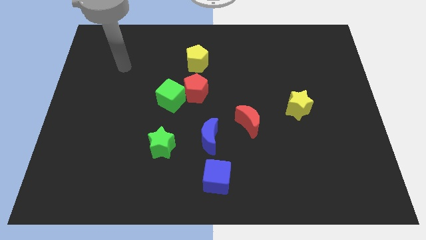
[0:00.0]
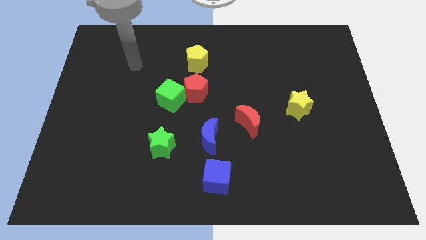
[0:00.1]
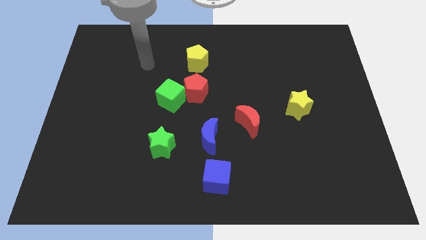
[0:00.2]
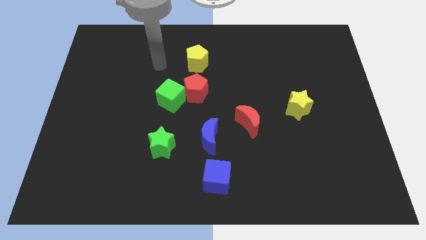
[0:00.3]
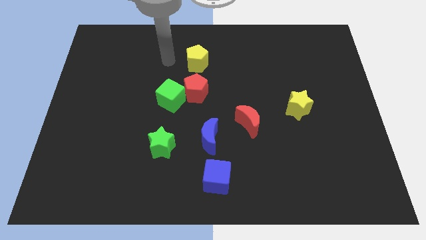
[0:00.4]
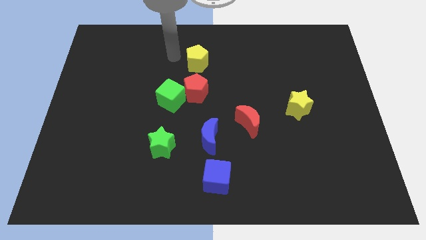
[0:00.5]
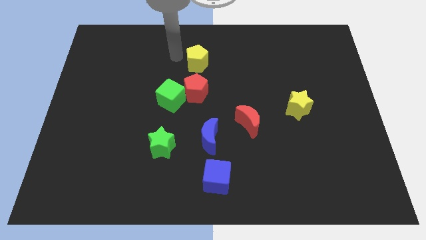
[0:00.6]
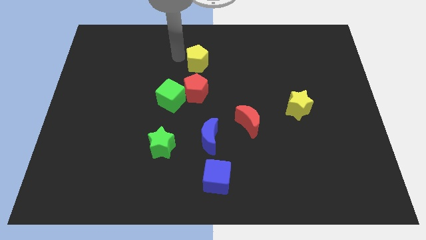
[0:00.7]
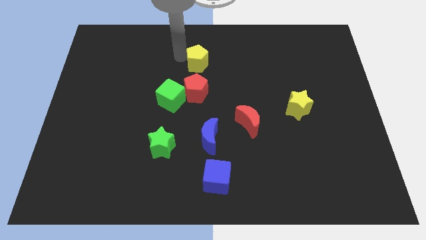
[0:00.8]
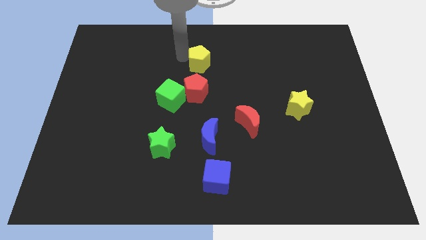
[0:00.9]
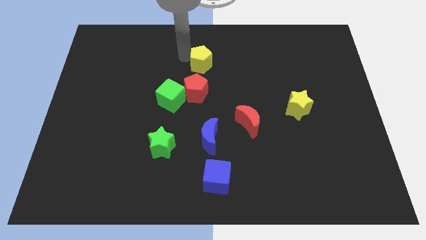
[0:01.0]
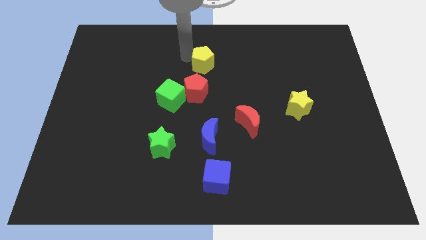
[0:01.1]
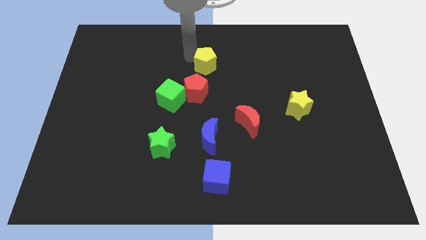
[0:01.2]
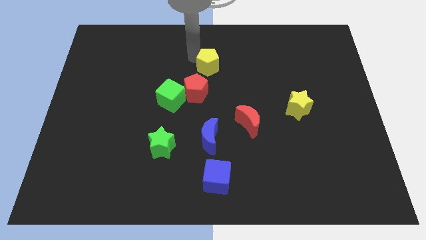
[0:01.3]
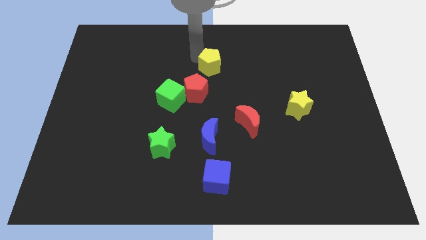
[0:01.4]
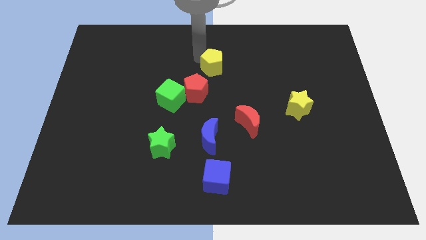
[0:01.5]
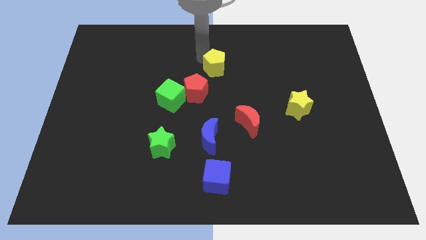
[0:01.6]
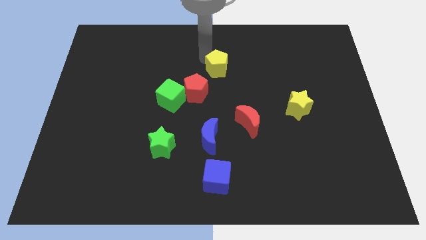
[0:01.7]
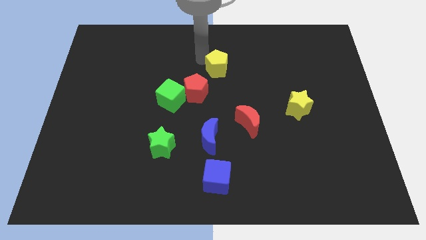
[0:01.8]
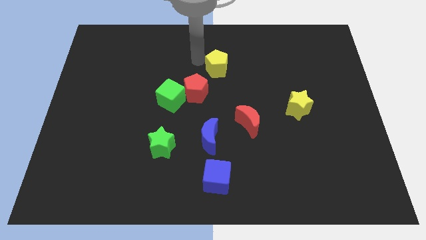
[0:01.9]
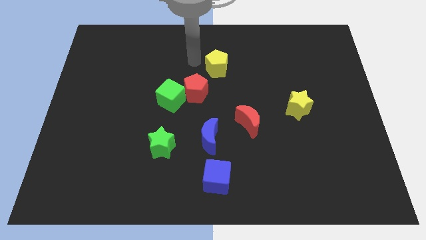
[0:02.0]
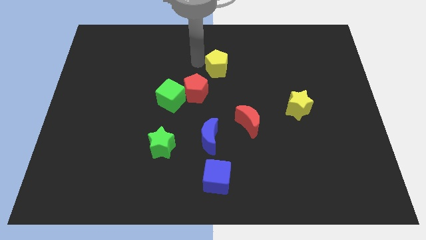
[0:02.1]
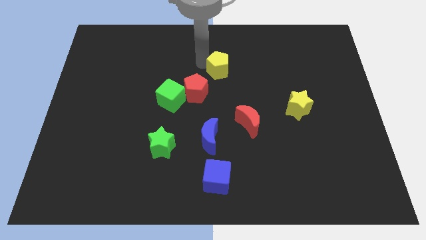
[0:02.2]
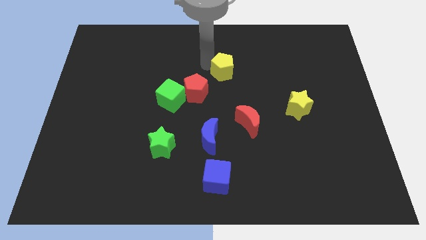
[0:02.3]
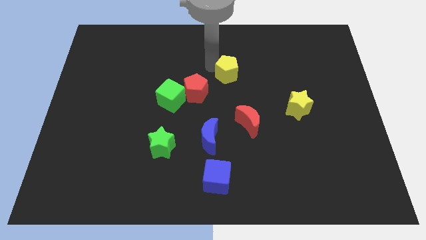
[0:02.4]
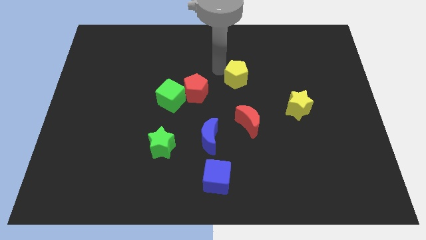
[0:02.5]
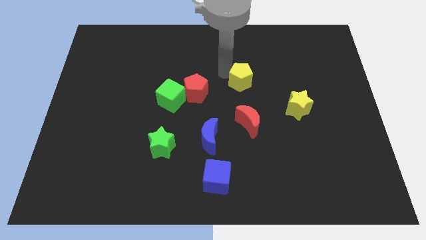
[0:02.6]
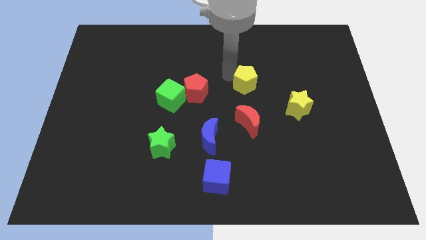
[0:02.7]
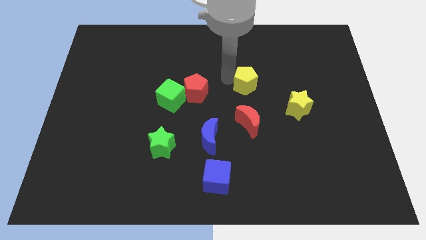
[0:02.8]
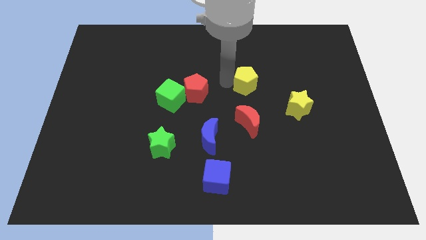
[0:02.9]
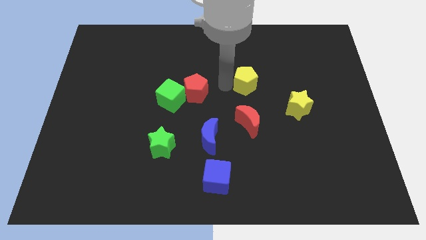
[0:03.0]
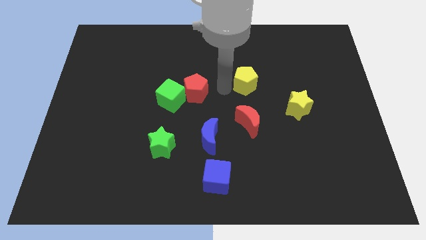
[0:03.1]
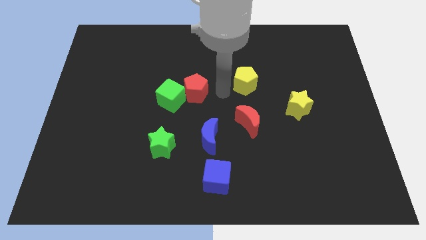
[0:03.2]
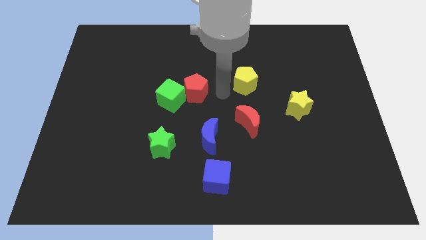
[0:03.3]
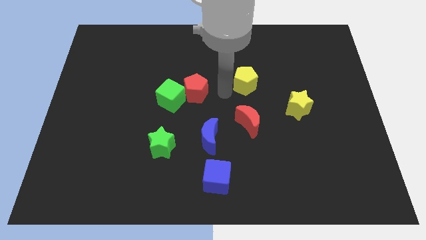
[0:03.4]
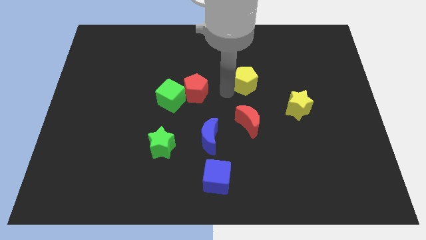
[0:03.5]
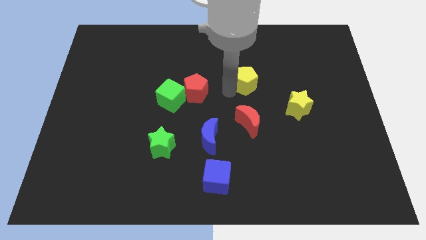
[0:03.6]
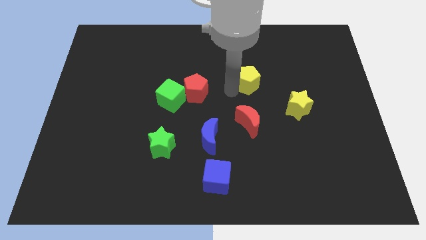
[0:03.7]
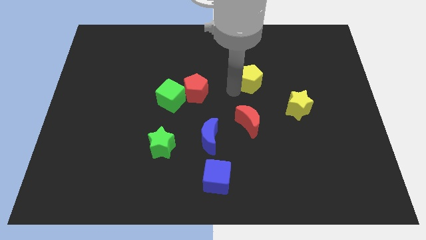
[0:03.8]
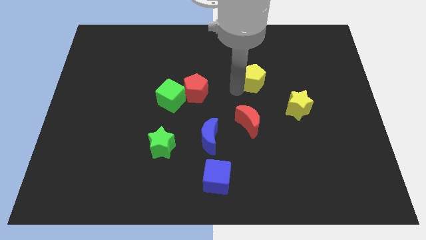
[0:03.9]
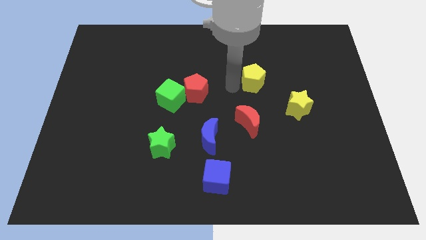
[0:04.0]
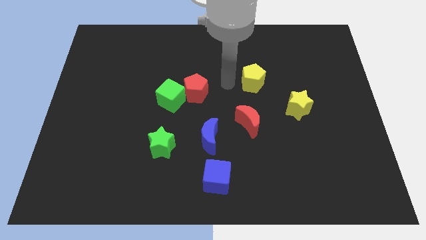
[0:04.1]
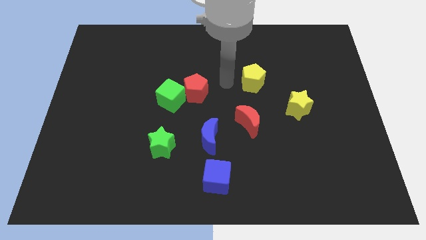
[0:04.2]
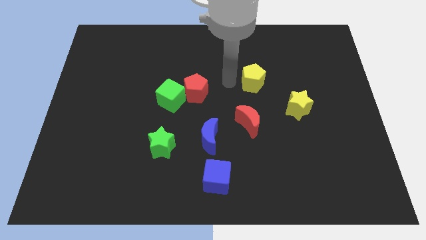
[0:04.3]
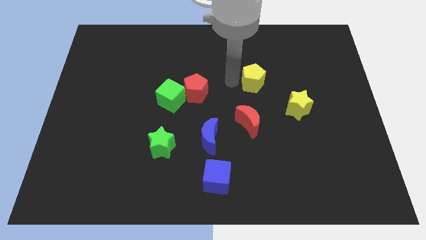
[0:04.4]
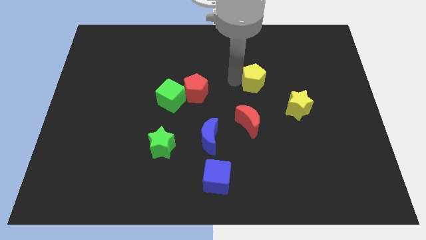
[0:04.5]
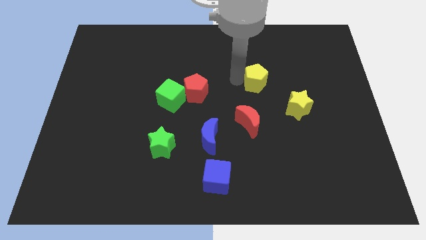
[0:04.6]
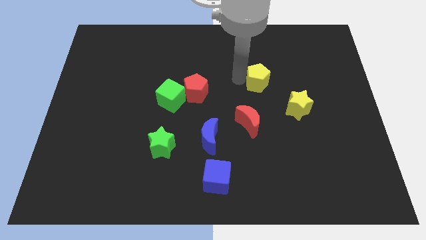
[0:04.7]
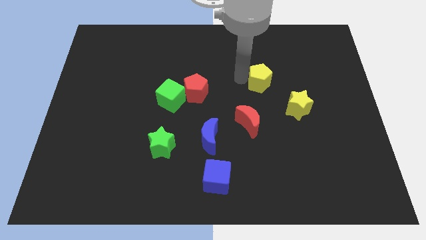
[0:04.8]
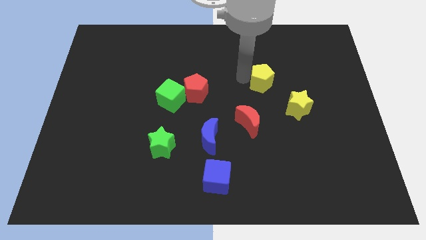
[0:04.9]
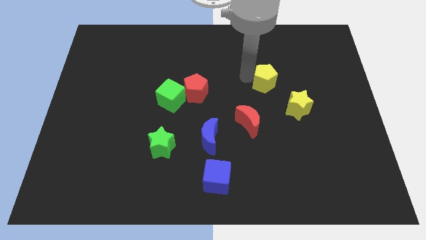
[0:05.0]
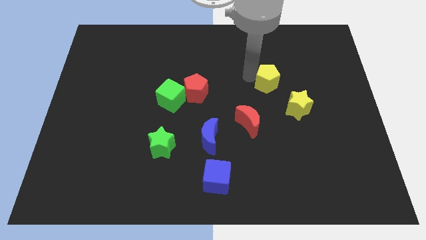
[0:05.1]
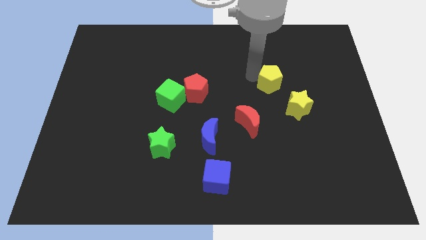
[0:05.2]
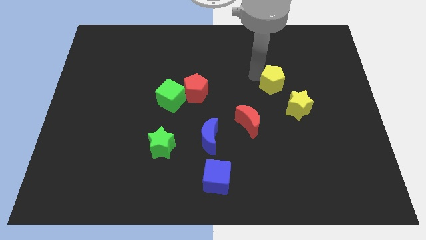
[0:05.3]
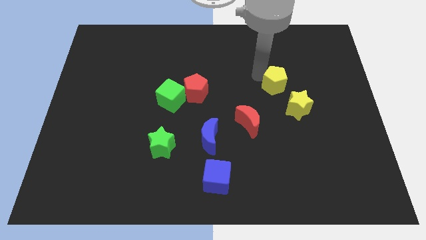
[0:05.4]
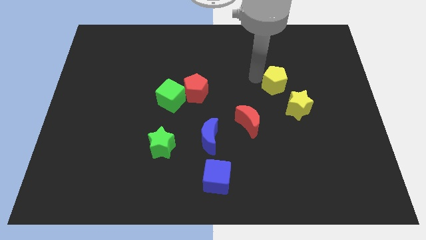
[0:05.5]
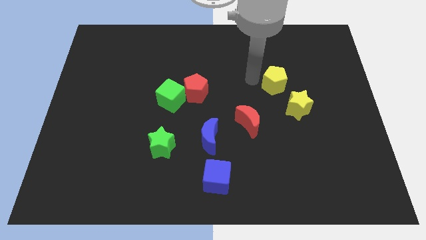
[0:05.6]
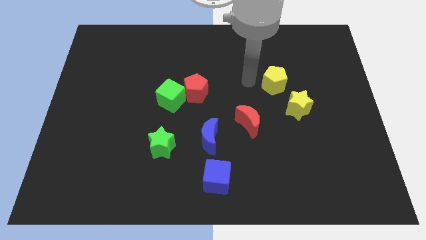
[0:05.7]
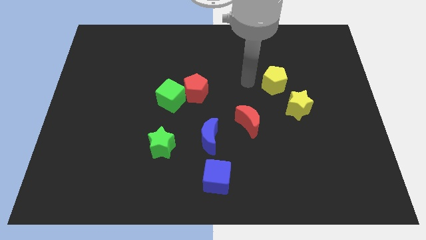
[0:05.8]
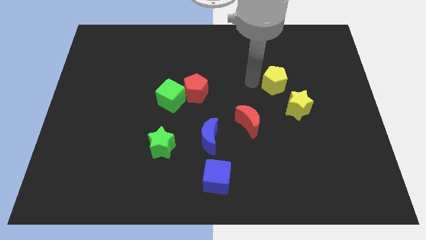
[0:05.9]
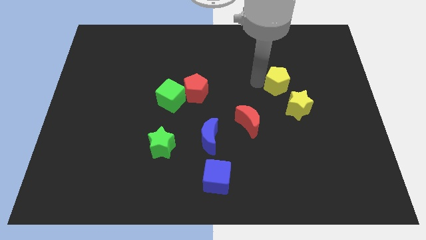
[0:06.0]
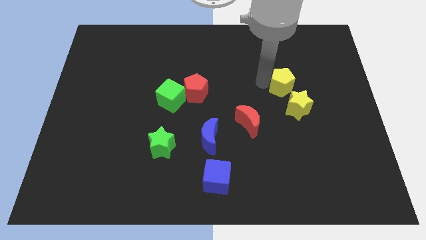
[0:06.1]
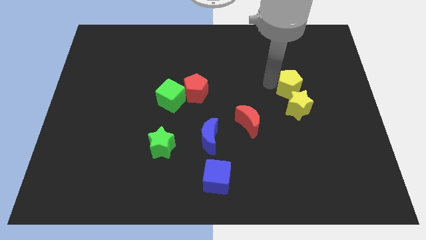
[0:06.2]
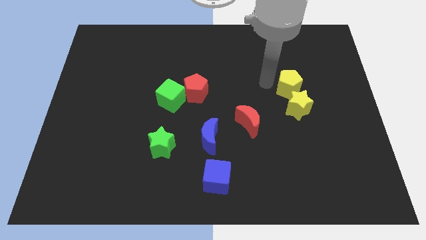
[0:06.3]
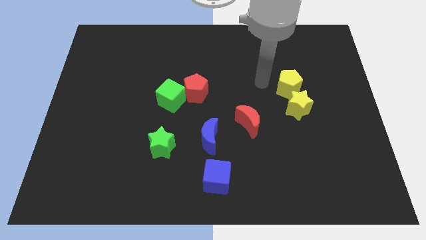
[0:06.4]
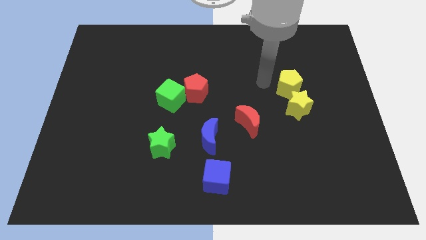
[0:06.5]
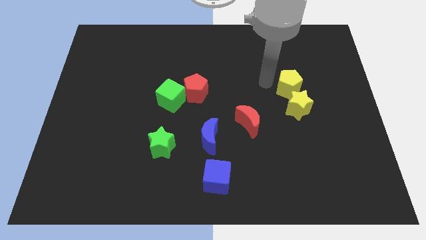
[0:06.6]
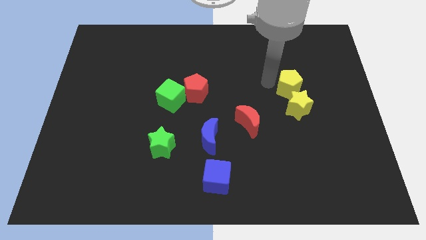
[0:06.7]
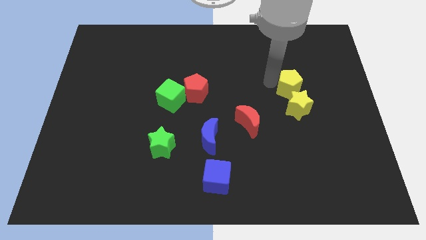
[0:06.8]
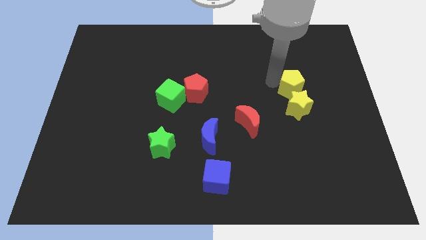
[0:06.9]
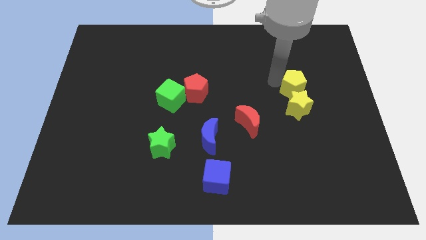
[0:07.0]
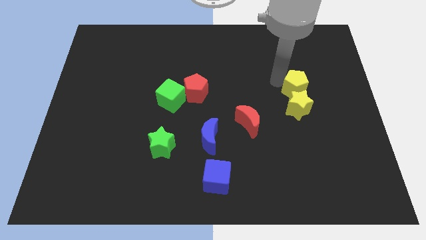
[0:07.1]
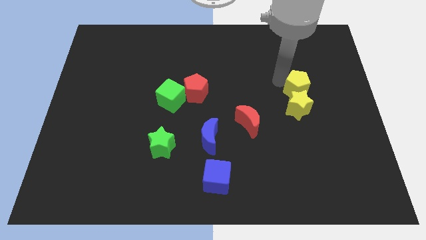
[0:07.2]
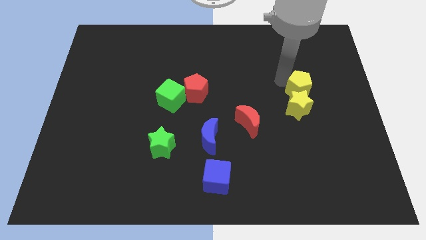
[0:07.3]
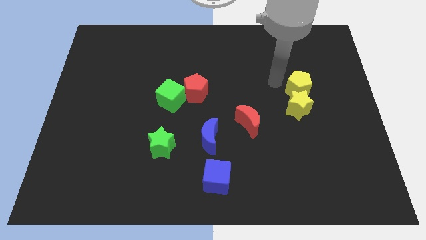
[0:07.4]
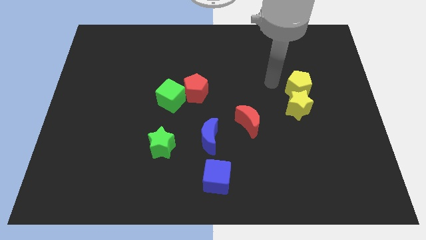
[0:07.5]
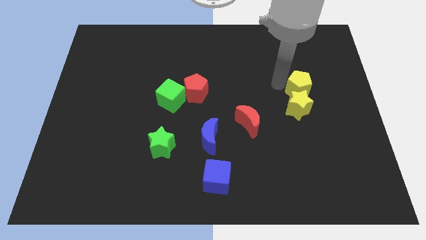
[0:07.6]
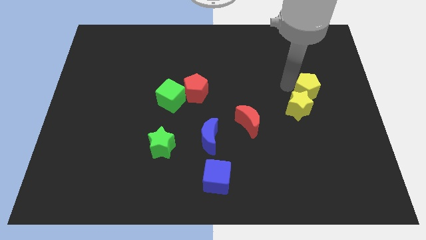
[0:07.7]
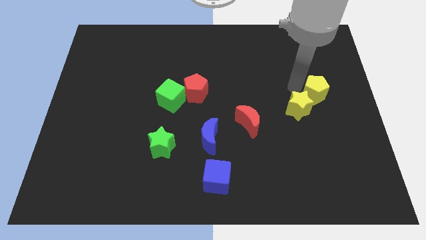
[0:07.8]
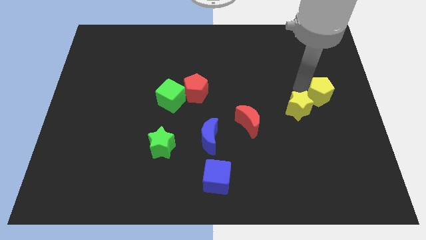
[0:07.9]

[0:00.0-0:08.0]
slide the yellow pentagon to the right side of the board
